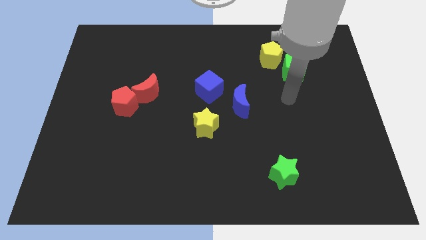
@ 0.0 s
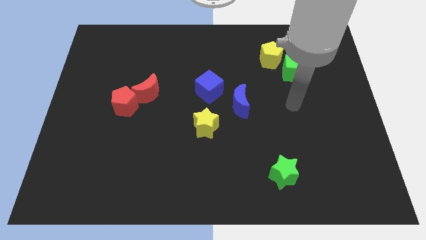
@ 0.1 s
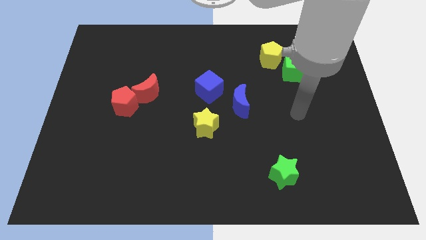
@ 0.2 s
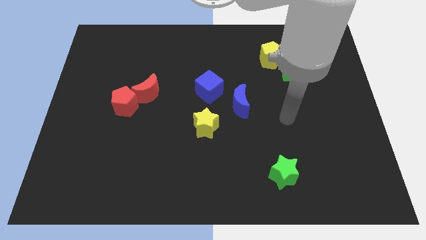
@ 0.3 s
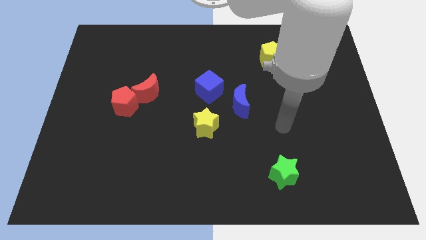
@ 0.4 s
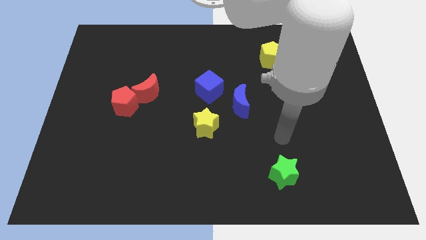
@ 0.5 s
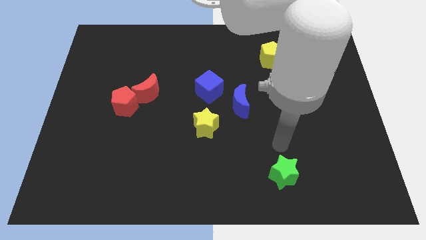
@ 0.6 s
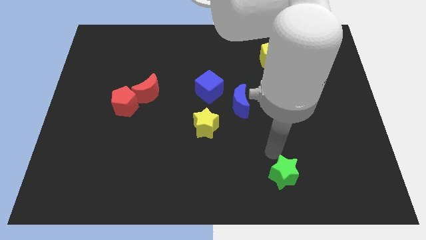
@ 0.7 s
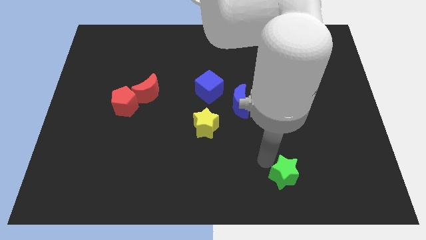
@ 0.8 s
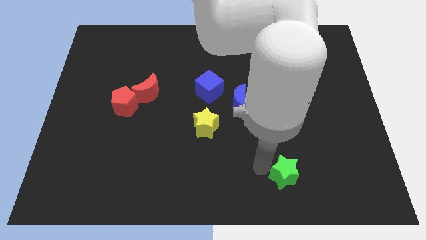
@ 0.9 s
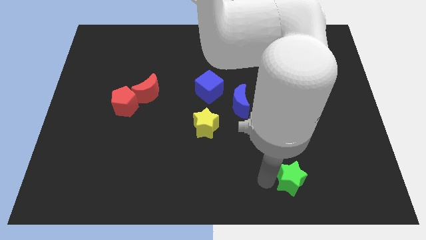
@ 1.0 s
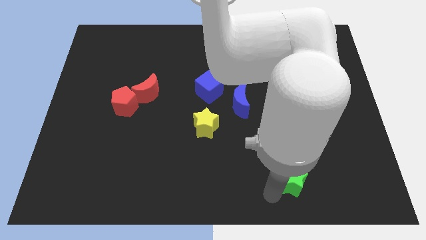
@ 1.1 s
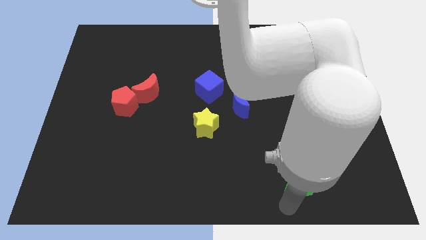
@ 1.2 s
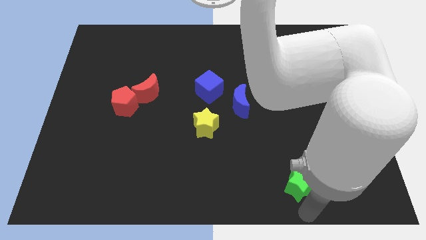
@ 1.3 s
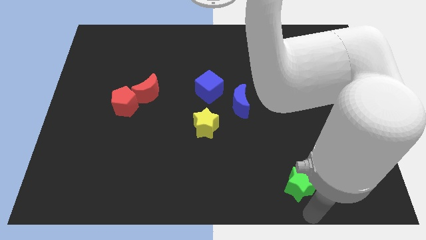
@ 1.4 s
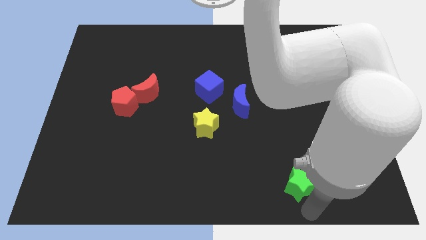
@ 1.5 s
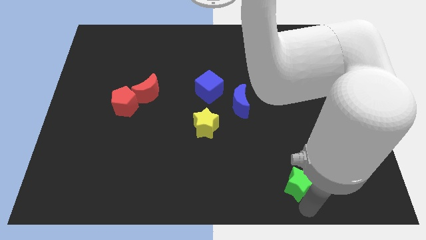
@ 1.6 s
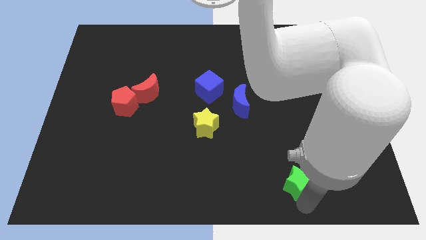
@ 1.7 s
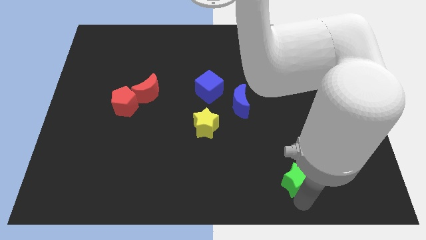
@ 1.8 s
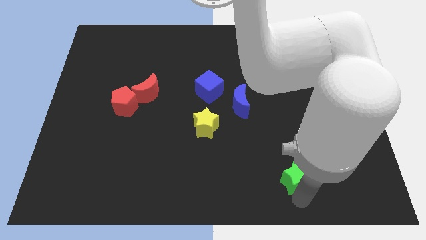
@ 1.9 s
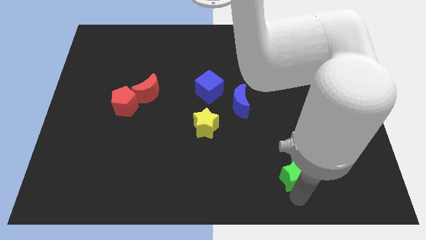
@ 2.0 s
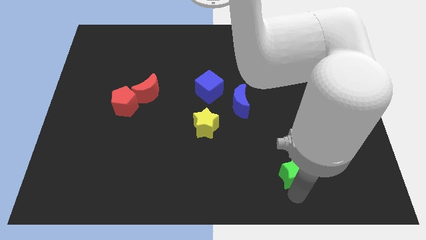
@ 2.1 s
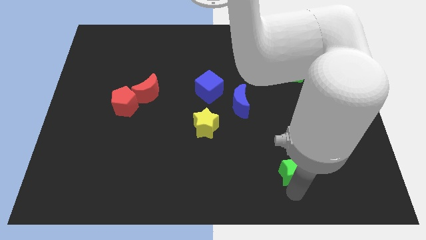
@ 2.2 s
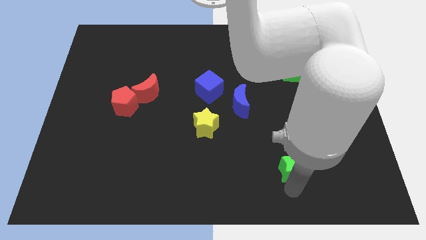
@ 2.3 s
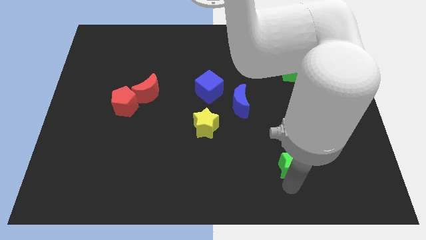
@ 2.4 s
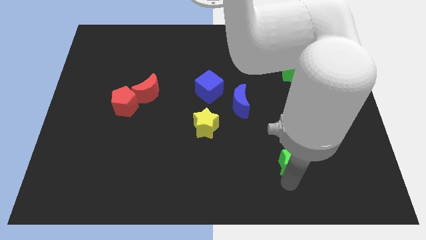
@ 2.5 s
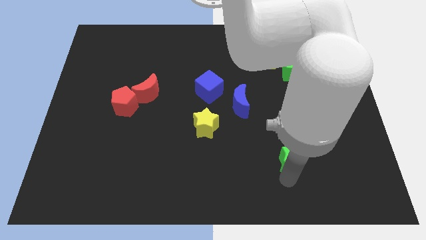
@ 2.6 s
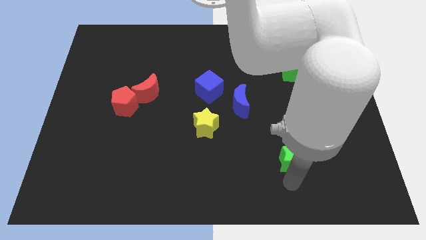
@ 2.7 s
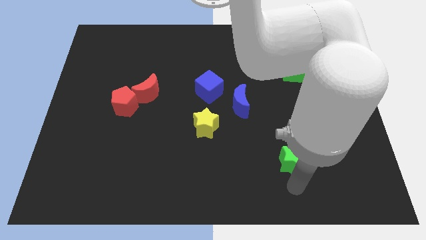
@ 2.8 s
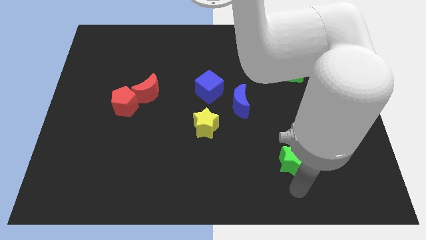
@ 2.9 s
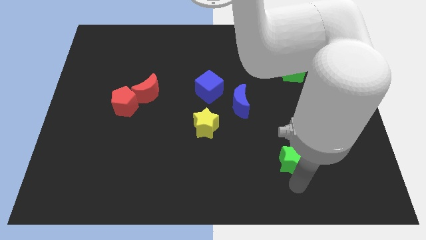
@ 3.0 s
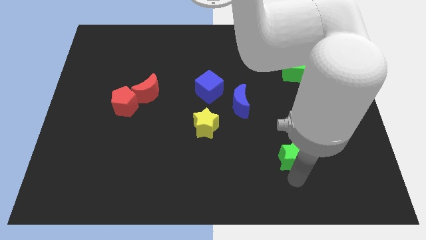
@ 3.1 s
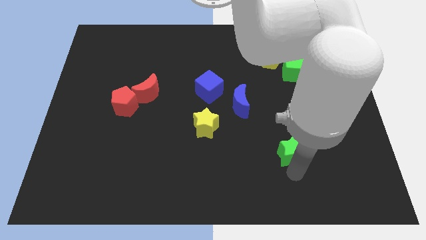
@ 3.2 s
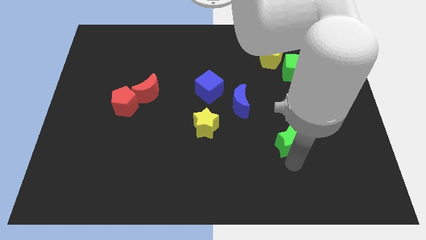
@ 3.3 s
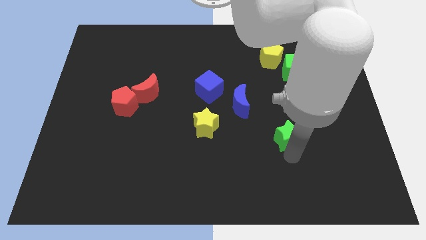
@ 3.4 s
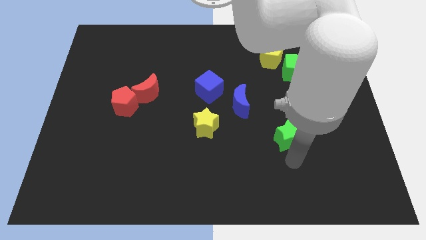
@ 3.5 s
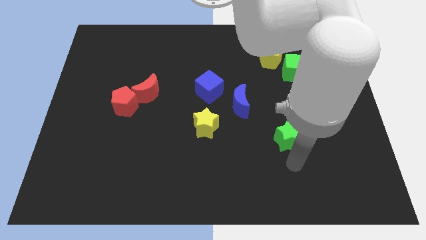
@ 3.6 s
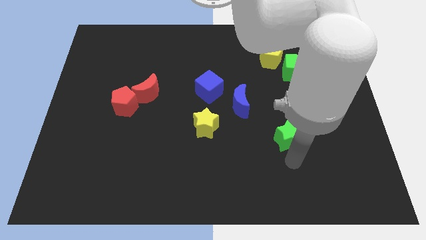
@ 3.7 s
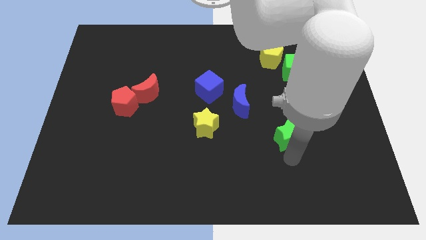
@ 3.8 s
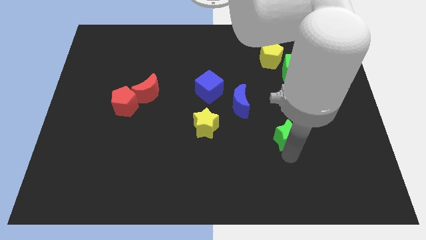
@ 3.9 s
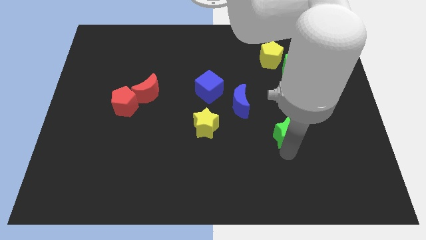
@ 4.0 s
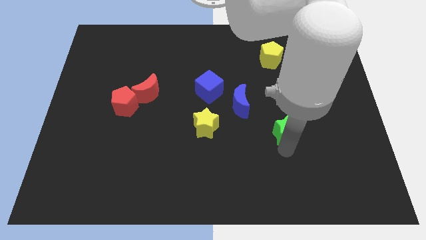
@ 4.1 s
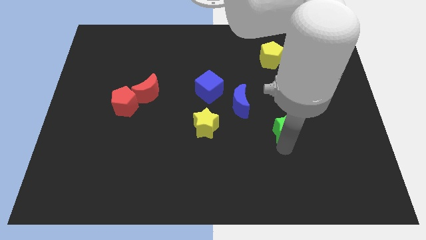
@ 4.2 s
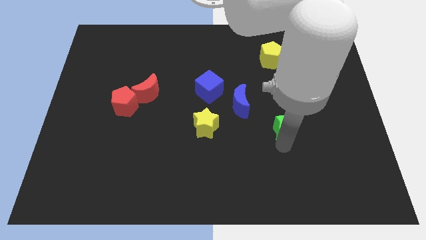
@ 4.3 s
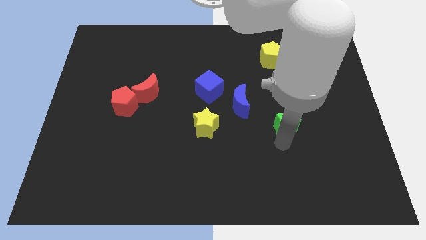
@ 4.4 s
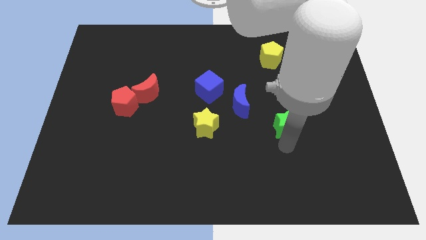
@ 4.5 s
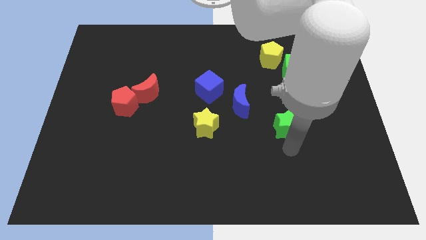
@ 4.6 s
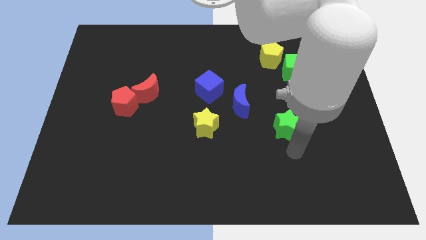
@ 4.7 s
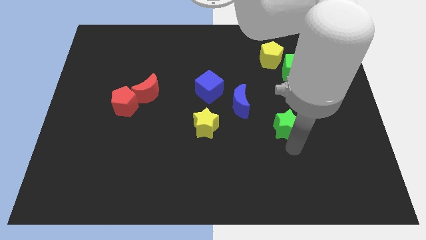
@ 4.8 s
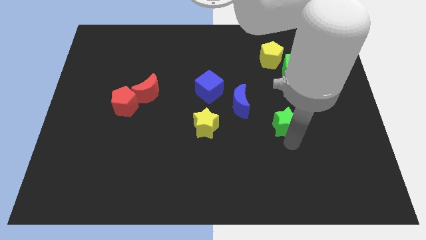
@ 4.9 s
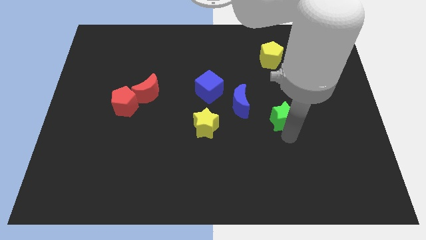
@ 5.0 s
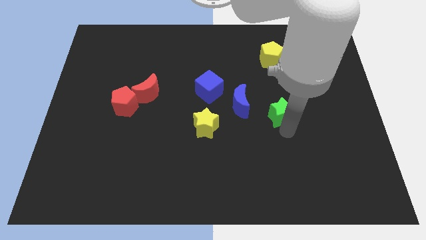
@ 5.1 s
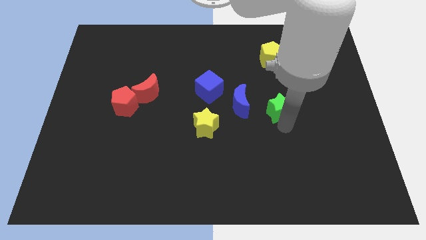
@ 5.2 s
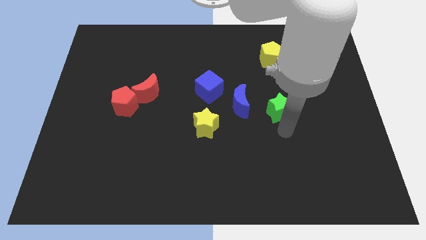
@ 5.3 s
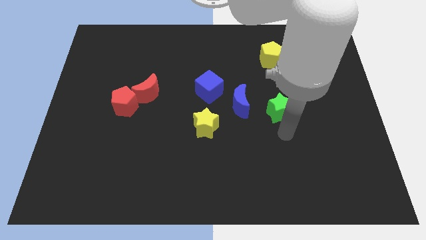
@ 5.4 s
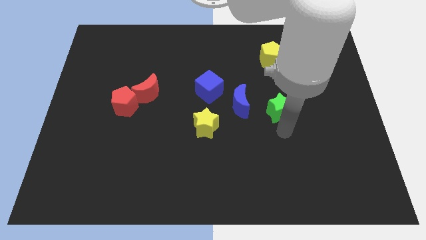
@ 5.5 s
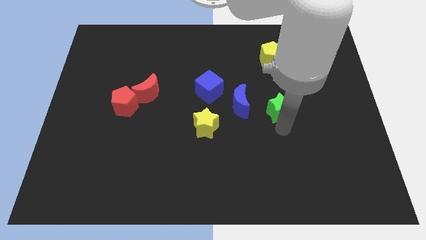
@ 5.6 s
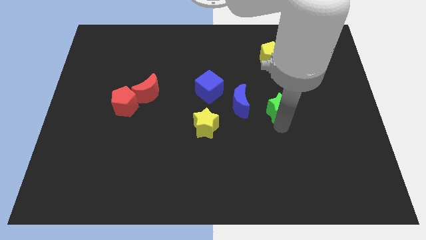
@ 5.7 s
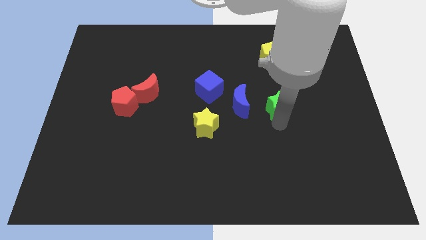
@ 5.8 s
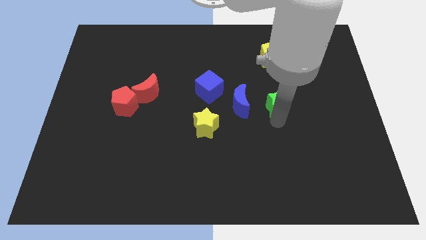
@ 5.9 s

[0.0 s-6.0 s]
push the green star to the bottom side of the yellow pentagon

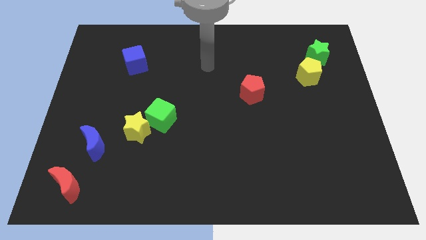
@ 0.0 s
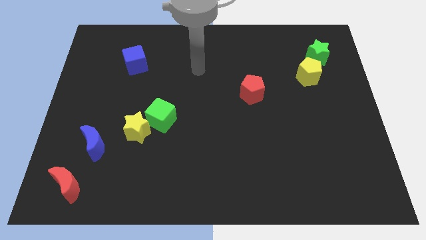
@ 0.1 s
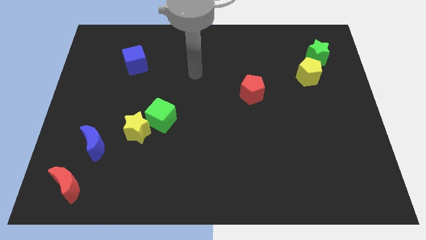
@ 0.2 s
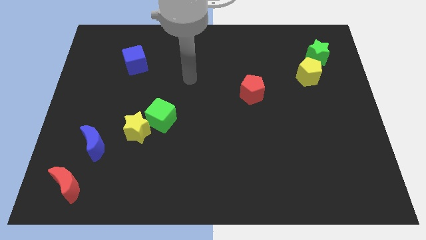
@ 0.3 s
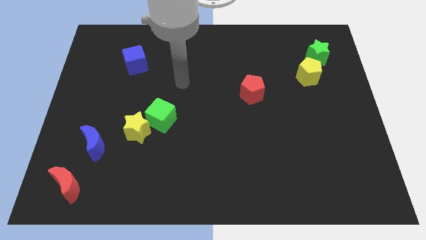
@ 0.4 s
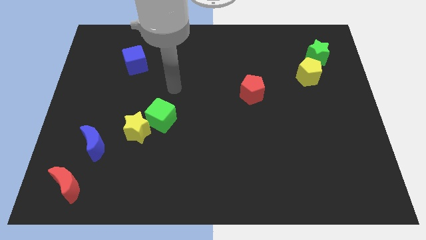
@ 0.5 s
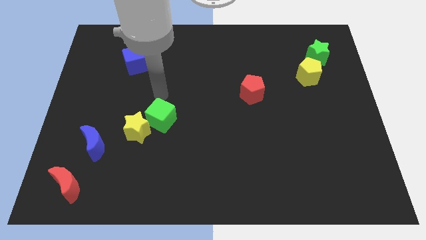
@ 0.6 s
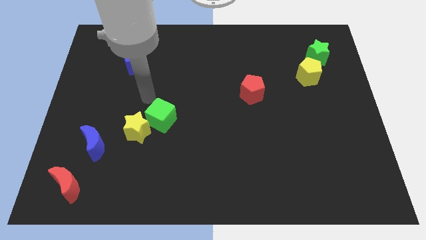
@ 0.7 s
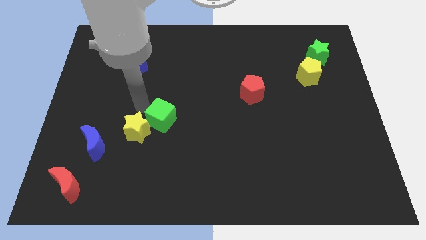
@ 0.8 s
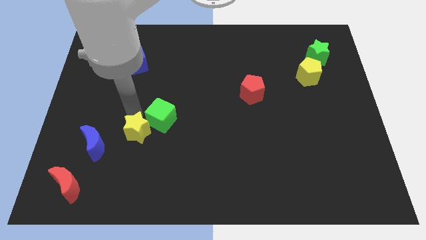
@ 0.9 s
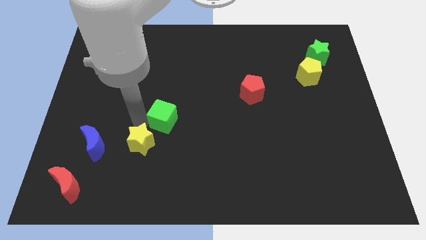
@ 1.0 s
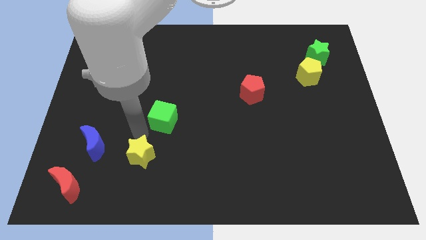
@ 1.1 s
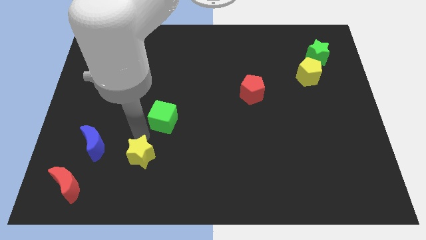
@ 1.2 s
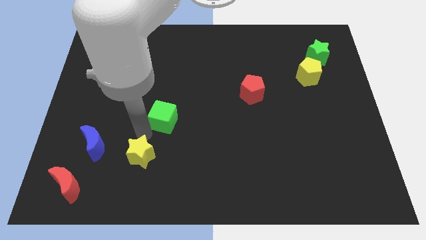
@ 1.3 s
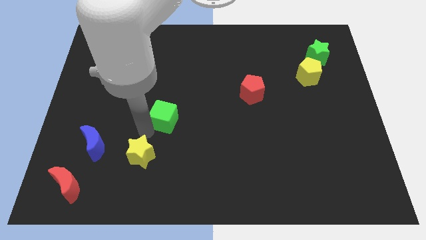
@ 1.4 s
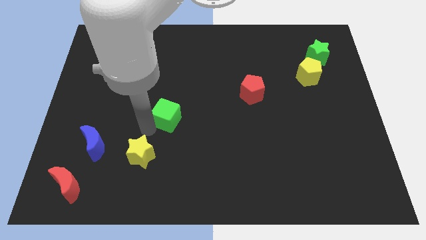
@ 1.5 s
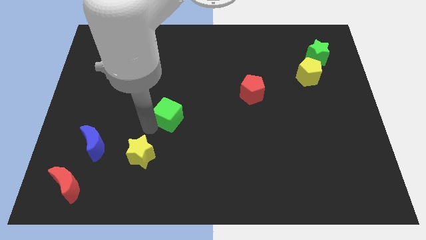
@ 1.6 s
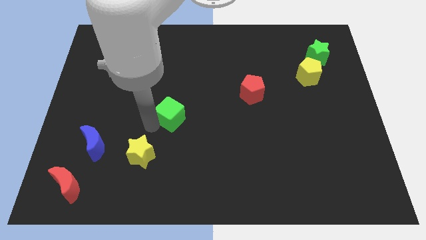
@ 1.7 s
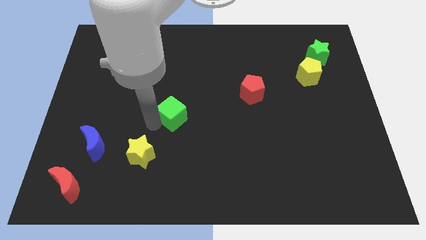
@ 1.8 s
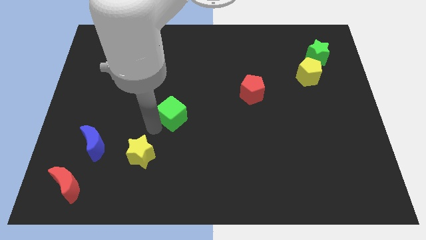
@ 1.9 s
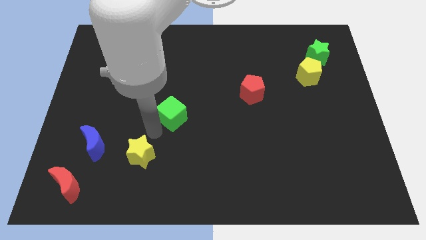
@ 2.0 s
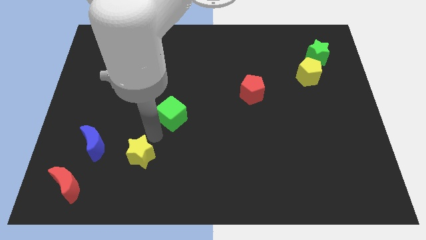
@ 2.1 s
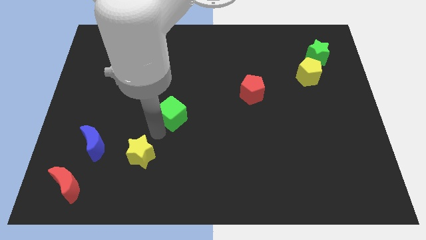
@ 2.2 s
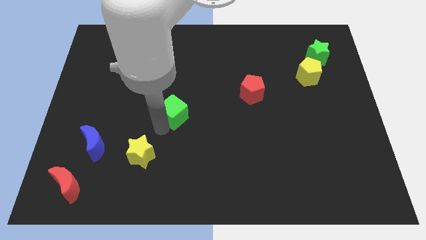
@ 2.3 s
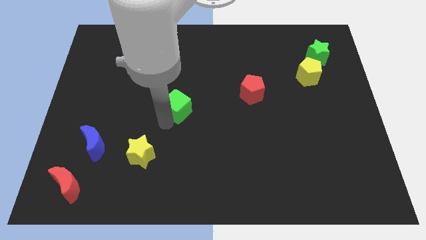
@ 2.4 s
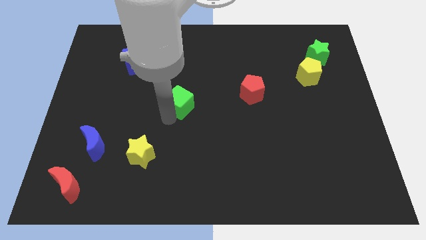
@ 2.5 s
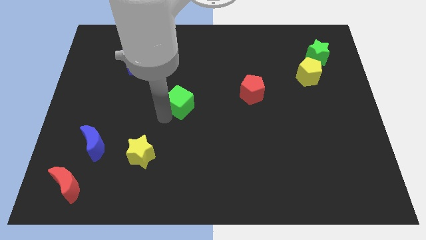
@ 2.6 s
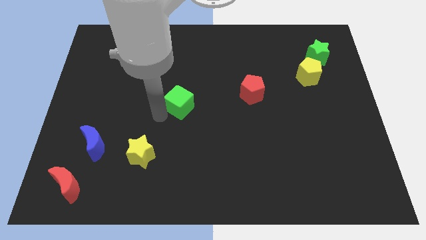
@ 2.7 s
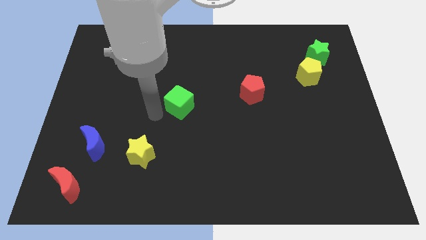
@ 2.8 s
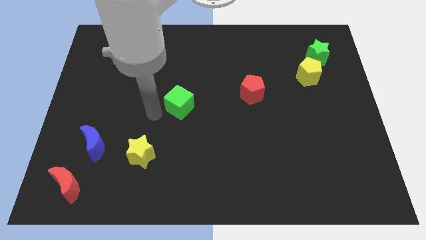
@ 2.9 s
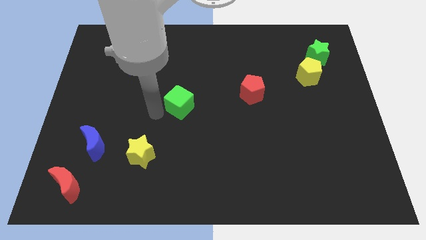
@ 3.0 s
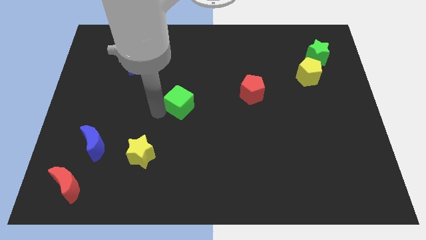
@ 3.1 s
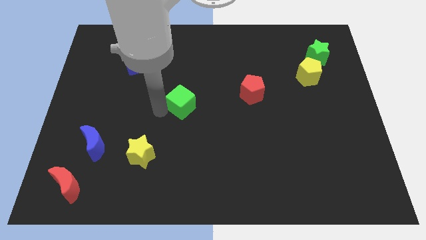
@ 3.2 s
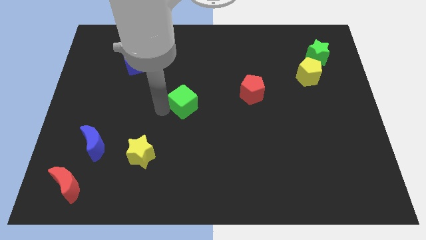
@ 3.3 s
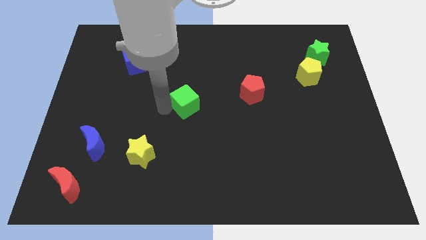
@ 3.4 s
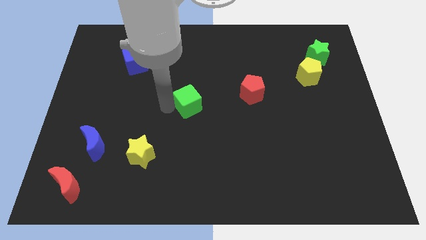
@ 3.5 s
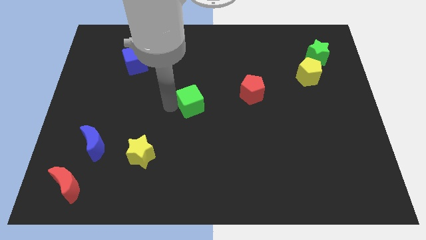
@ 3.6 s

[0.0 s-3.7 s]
slide the green cube to the left side of the red pentagon
